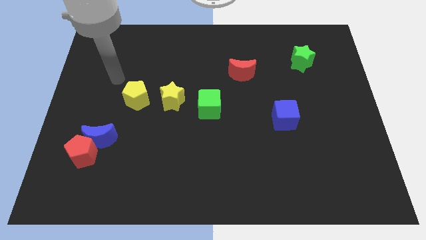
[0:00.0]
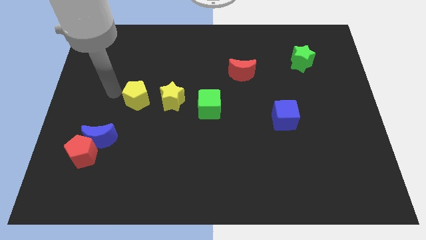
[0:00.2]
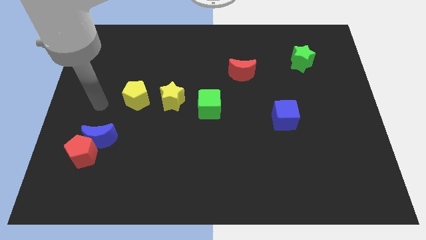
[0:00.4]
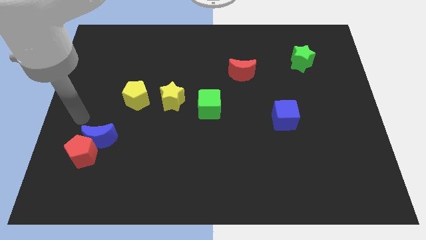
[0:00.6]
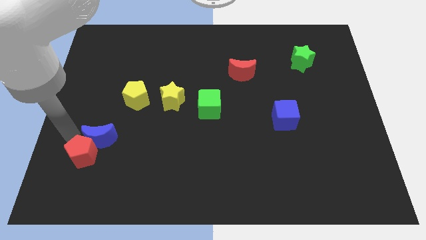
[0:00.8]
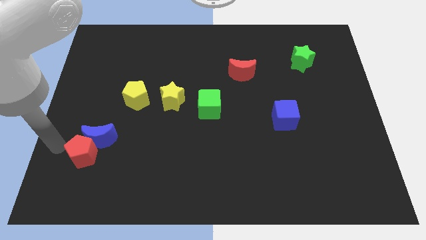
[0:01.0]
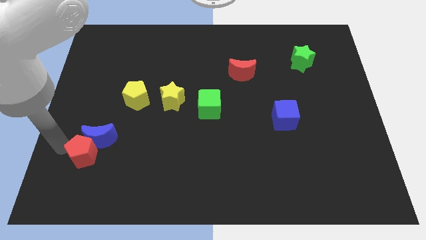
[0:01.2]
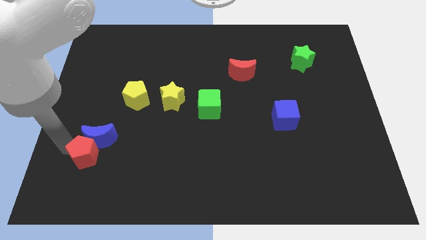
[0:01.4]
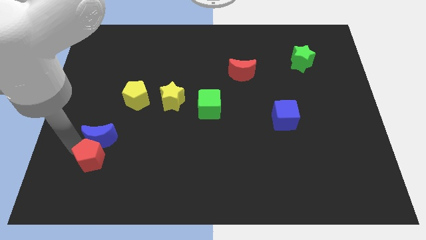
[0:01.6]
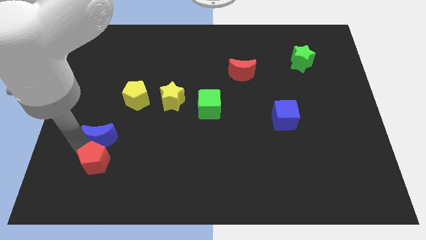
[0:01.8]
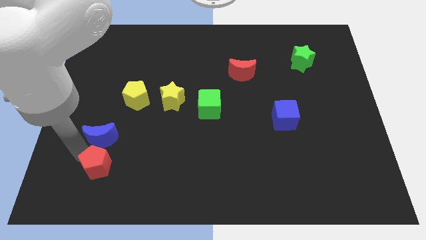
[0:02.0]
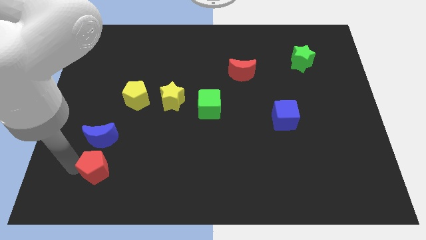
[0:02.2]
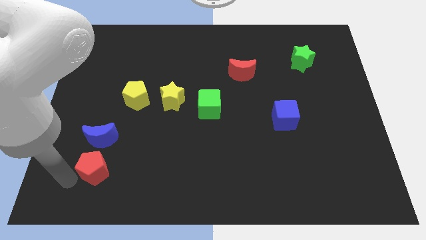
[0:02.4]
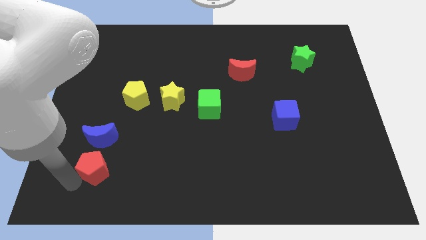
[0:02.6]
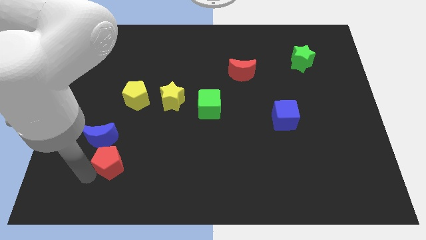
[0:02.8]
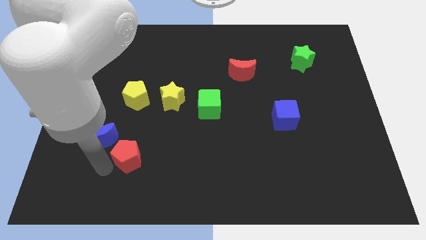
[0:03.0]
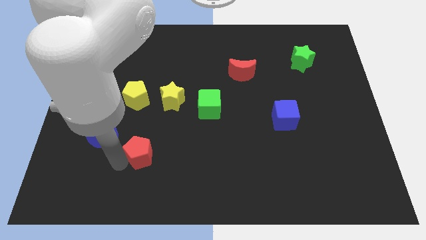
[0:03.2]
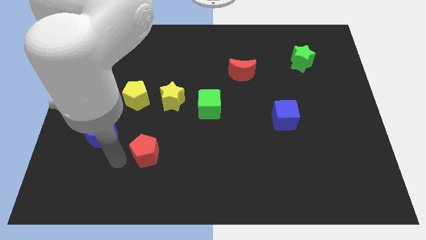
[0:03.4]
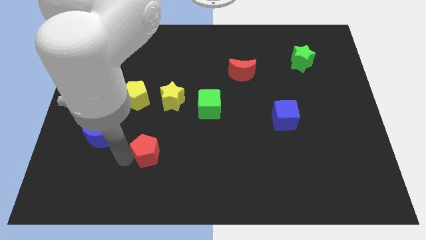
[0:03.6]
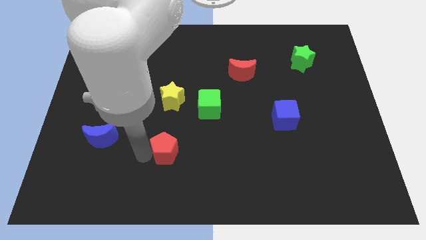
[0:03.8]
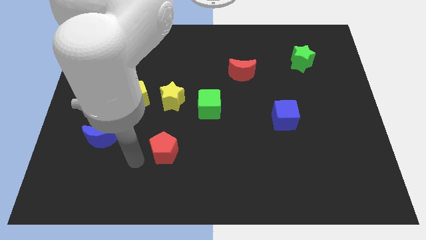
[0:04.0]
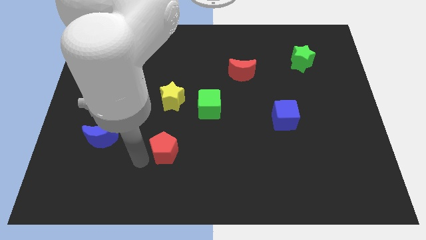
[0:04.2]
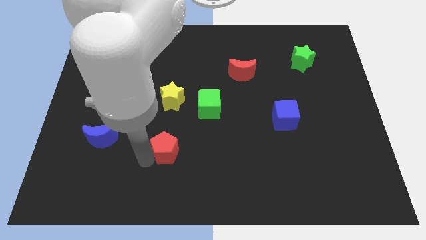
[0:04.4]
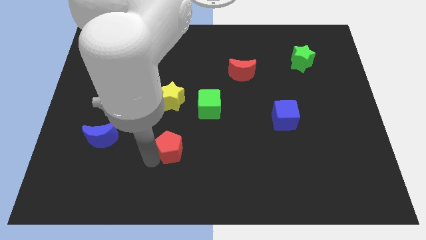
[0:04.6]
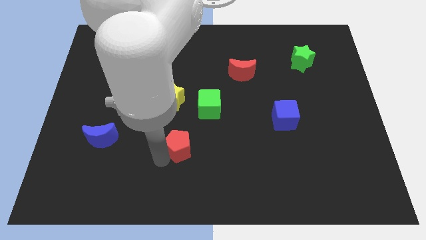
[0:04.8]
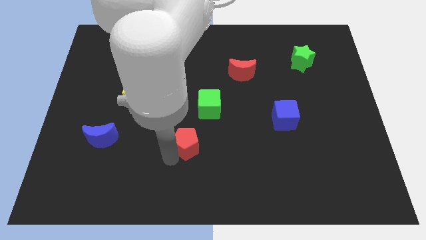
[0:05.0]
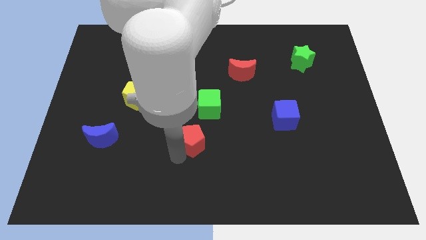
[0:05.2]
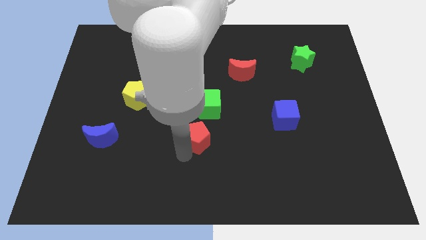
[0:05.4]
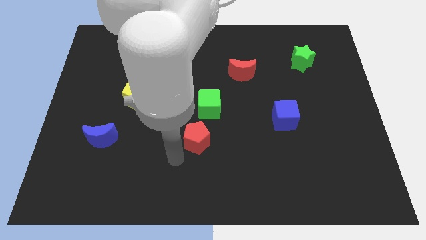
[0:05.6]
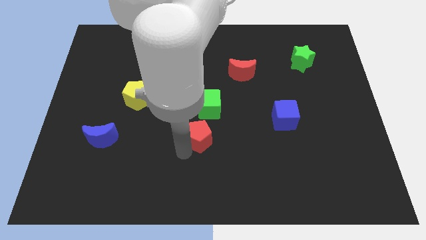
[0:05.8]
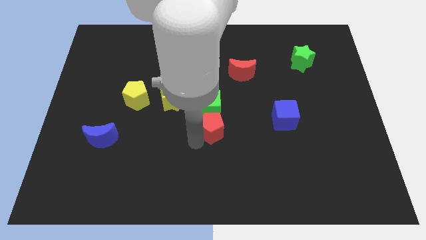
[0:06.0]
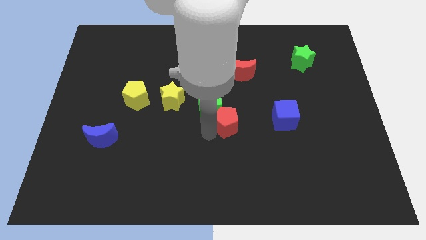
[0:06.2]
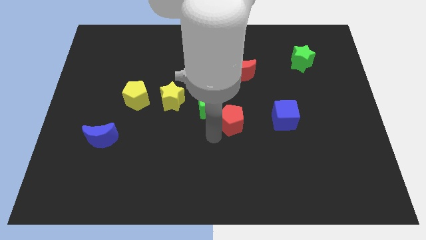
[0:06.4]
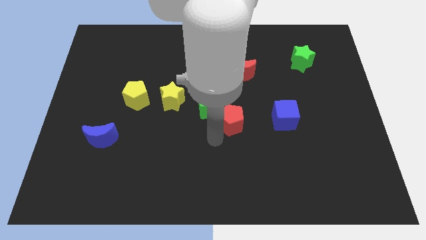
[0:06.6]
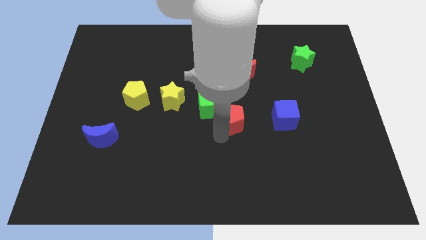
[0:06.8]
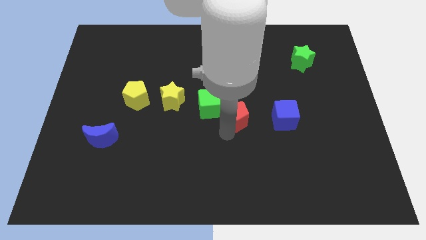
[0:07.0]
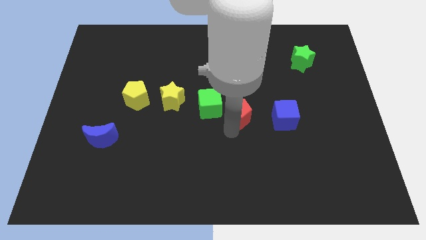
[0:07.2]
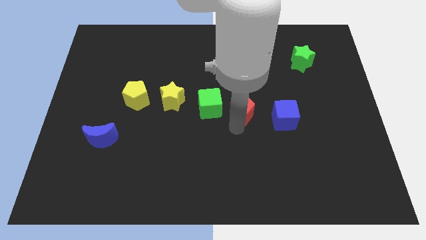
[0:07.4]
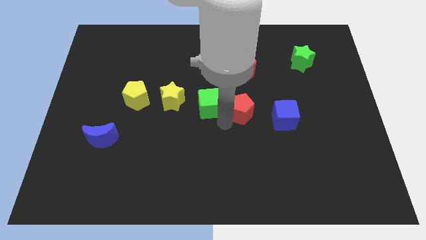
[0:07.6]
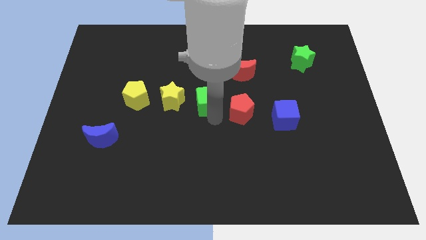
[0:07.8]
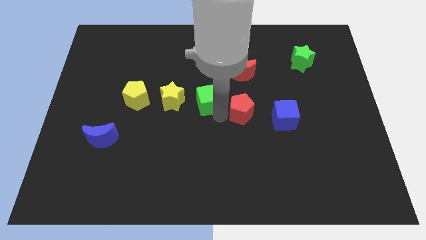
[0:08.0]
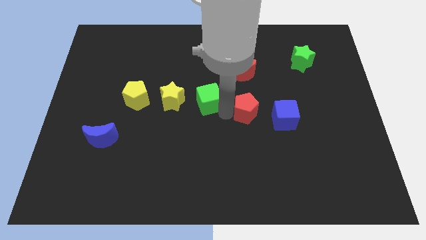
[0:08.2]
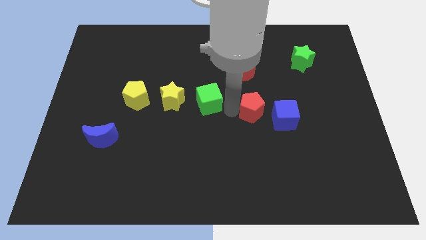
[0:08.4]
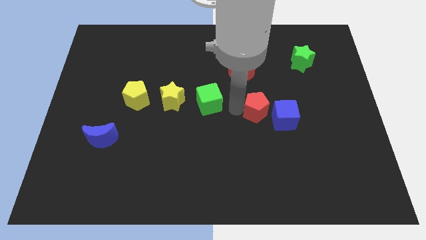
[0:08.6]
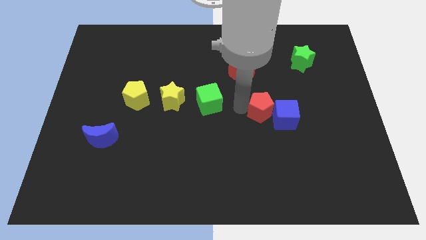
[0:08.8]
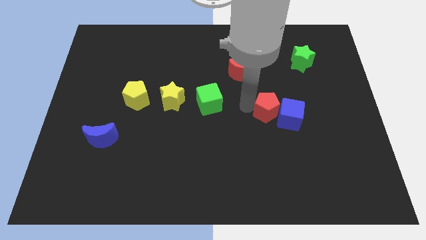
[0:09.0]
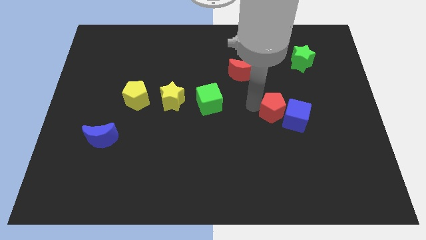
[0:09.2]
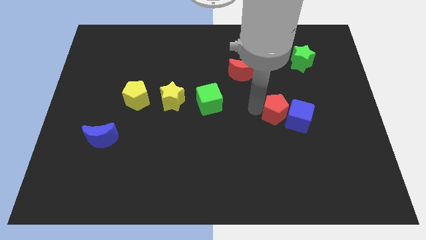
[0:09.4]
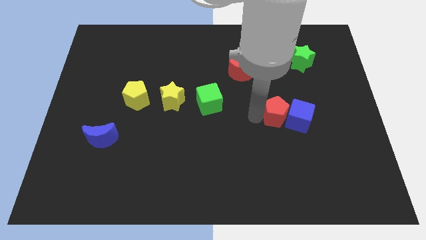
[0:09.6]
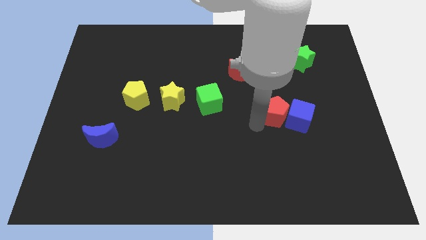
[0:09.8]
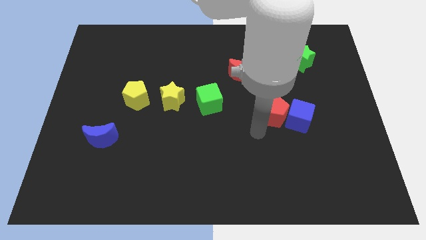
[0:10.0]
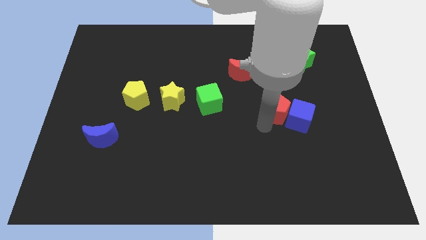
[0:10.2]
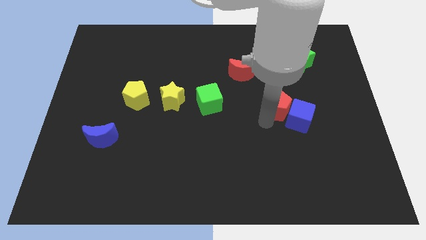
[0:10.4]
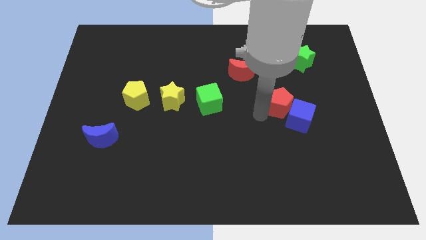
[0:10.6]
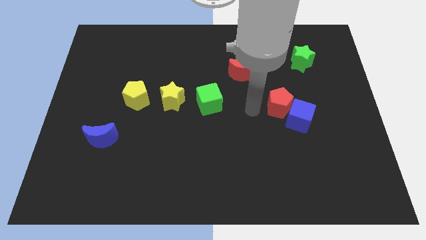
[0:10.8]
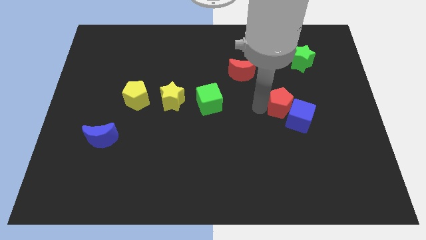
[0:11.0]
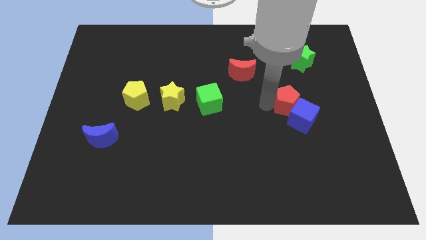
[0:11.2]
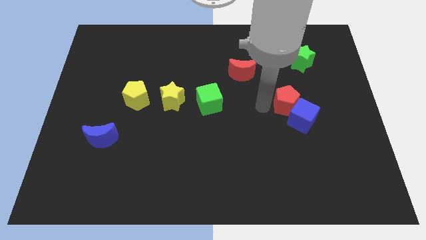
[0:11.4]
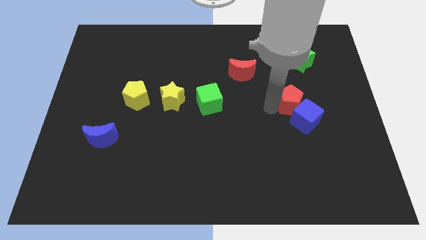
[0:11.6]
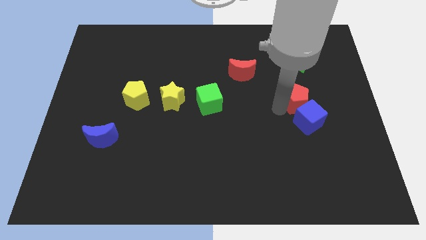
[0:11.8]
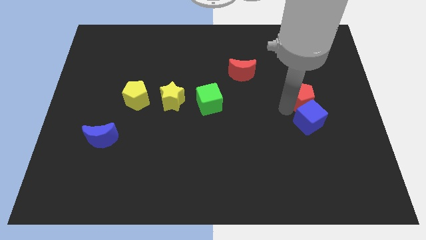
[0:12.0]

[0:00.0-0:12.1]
slide the red pentagon diagonally up and to the right of the blue cube

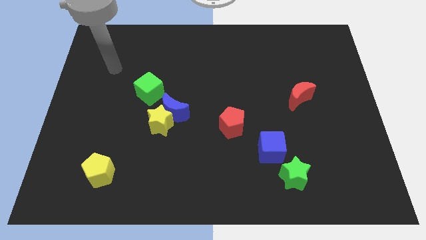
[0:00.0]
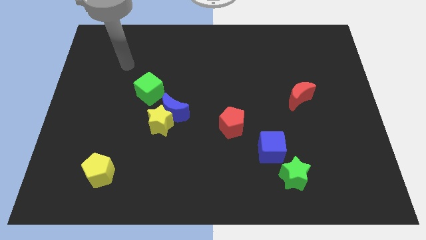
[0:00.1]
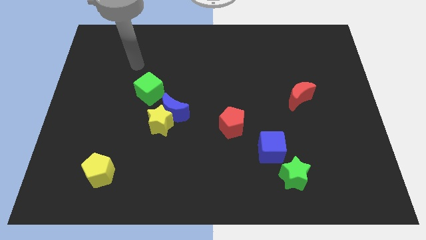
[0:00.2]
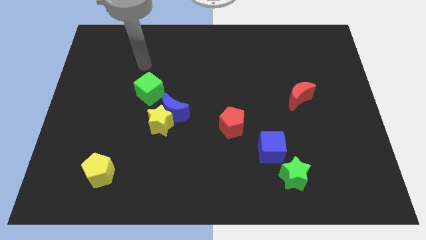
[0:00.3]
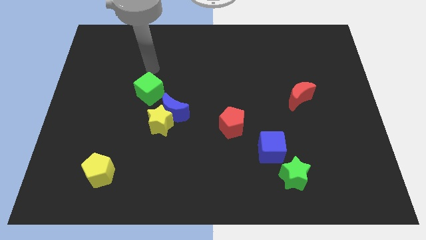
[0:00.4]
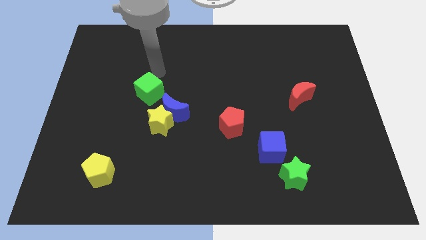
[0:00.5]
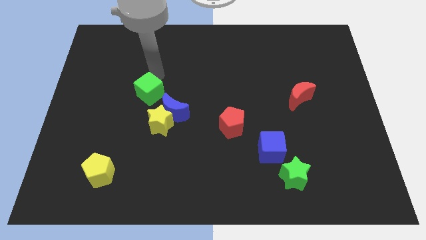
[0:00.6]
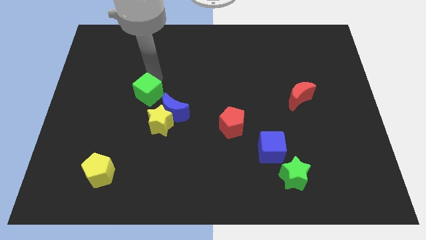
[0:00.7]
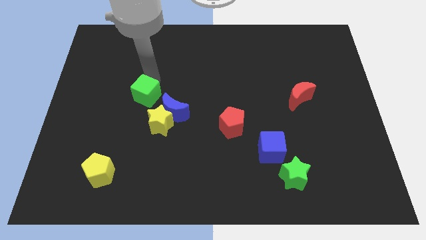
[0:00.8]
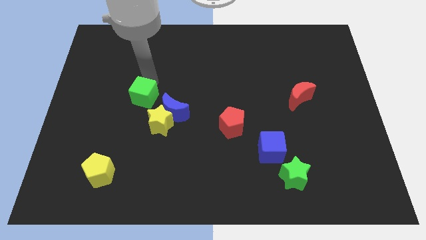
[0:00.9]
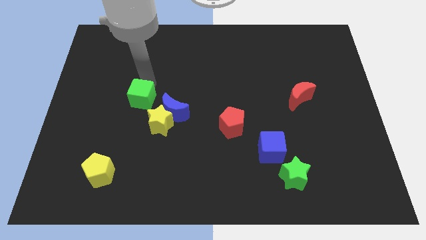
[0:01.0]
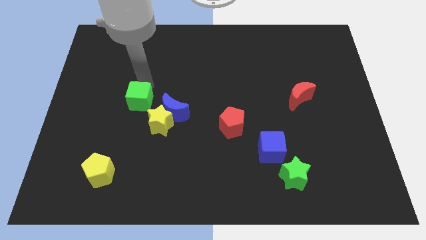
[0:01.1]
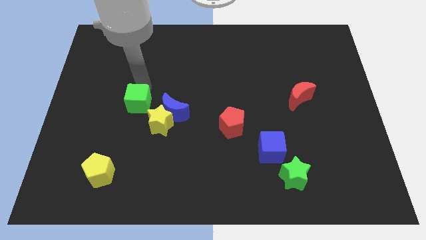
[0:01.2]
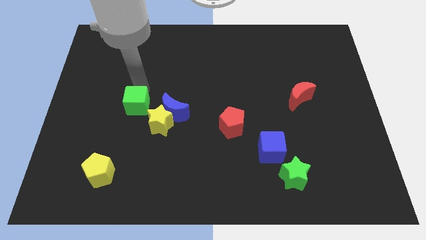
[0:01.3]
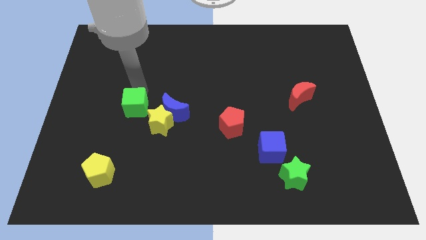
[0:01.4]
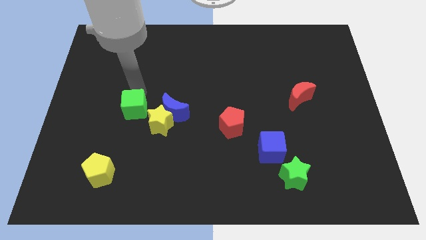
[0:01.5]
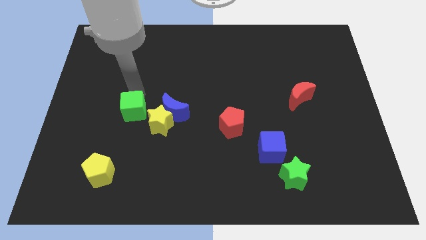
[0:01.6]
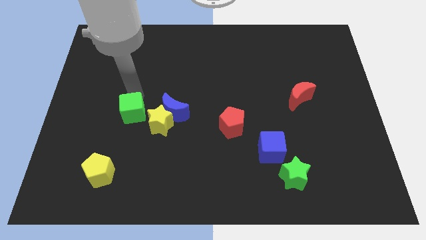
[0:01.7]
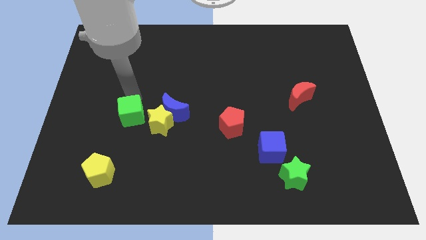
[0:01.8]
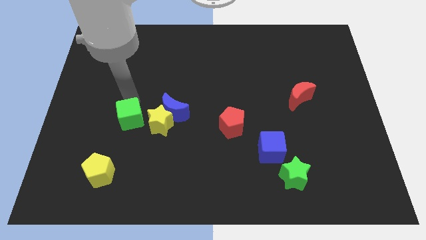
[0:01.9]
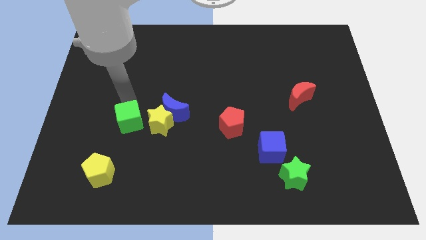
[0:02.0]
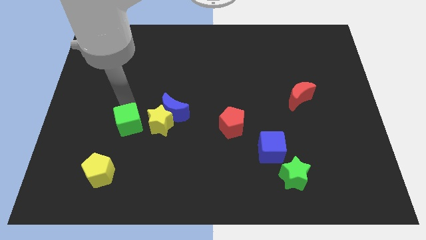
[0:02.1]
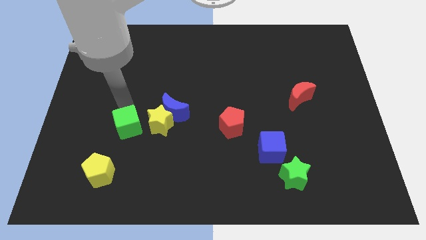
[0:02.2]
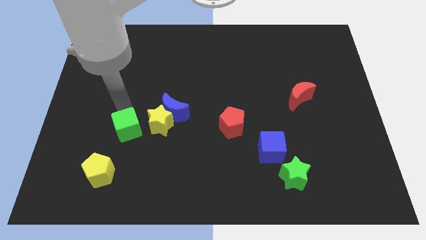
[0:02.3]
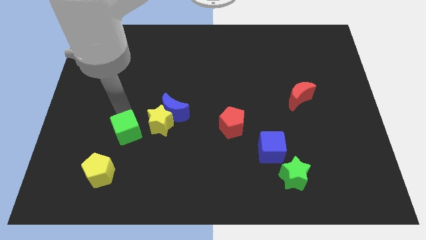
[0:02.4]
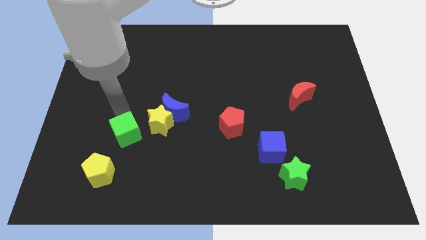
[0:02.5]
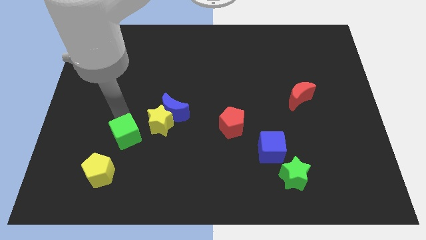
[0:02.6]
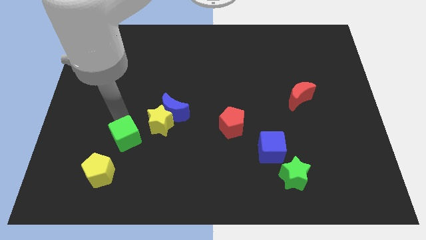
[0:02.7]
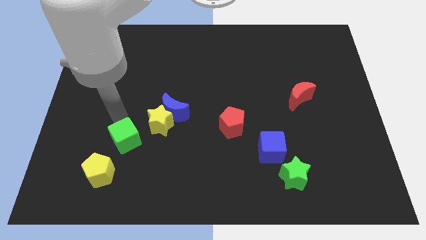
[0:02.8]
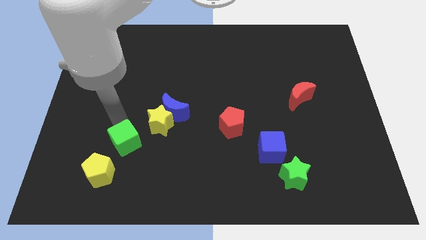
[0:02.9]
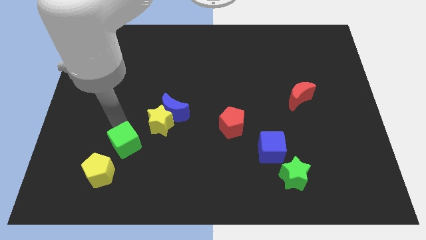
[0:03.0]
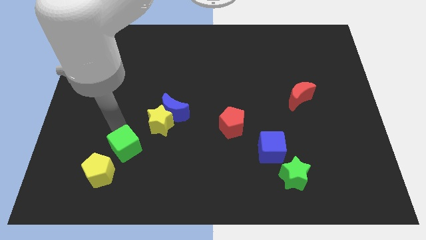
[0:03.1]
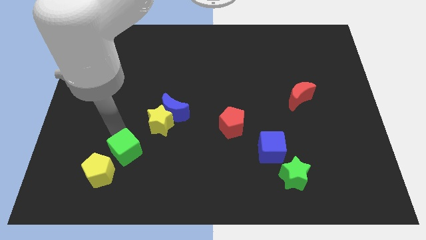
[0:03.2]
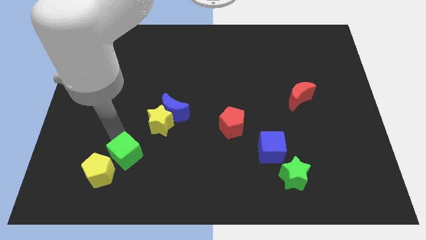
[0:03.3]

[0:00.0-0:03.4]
push the green cube just right of the yellow pentagon
